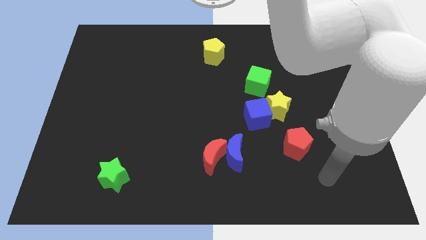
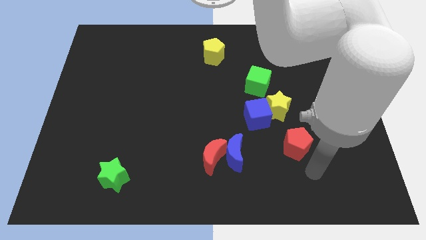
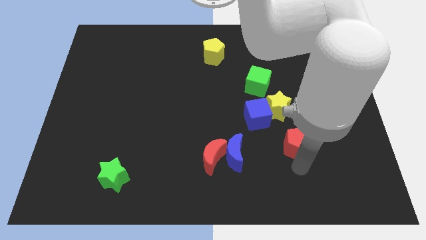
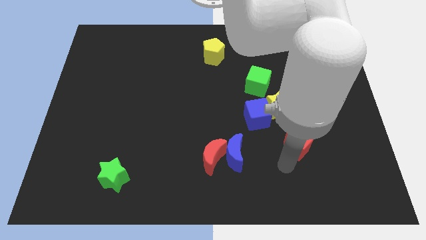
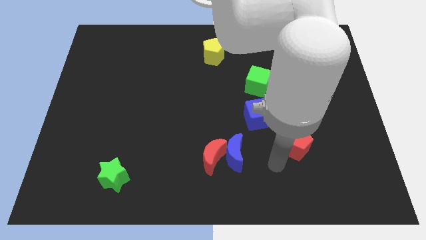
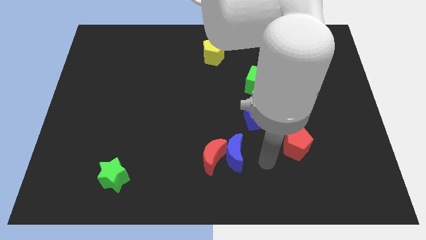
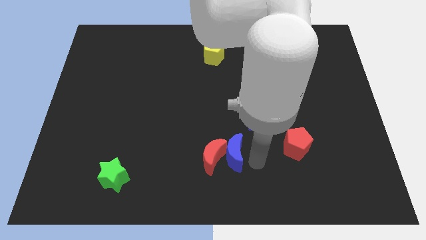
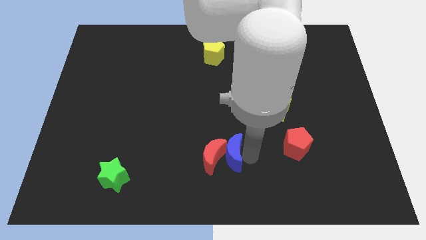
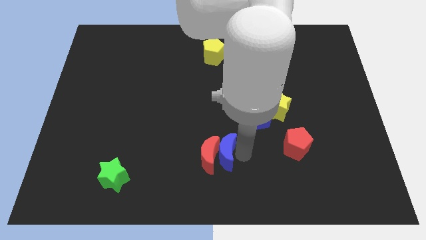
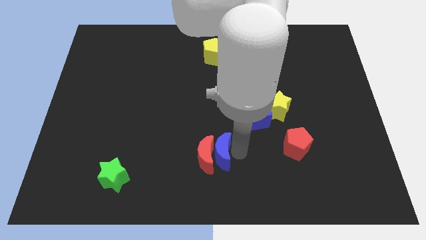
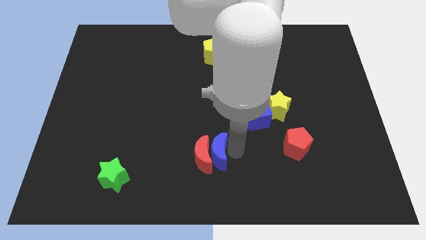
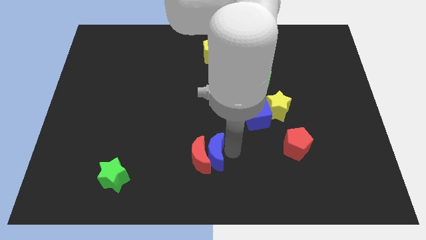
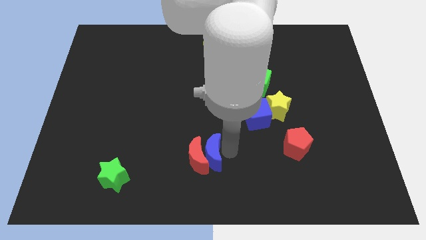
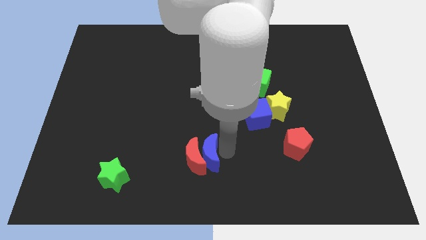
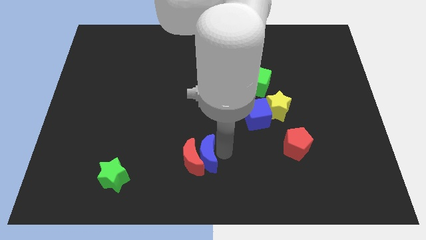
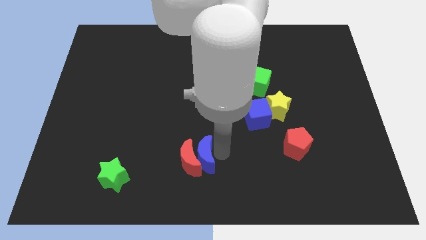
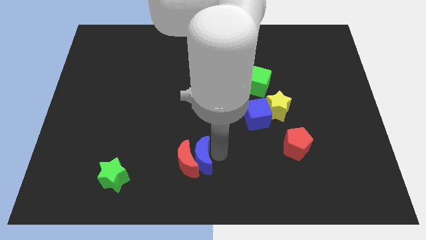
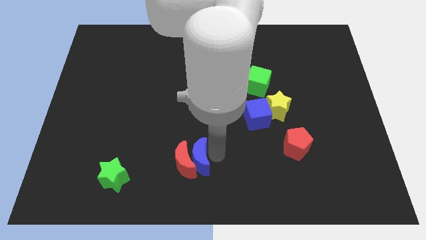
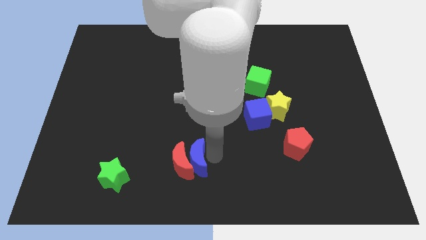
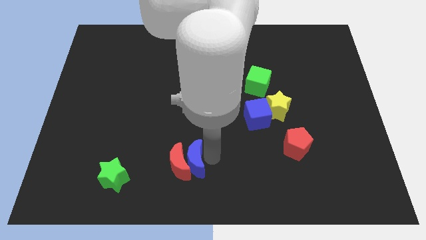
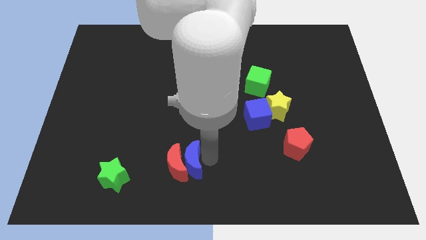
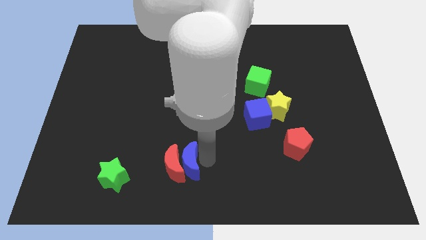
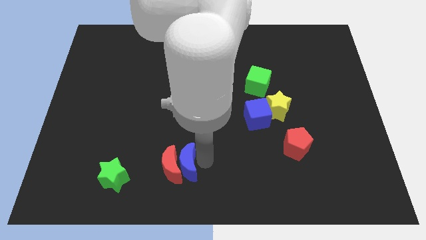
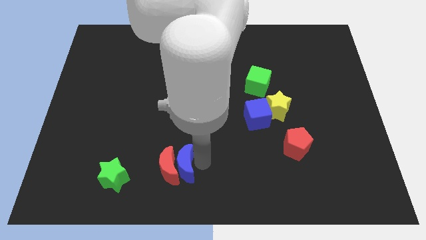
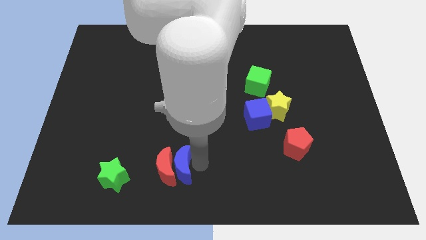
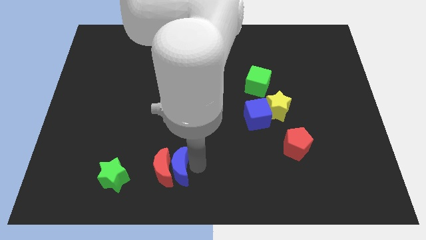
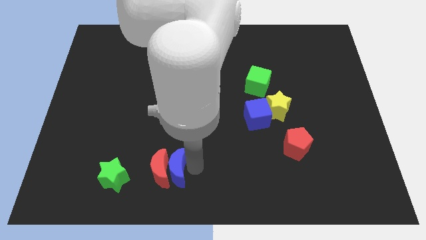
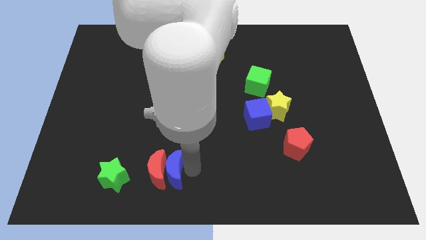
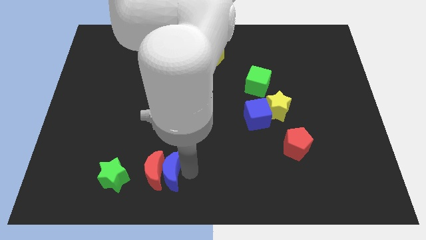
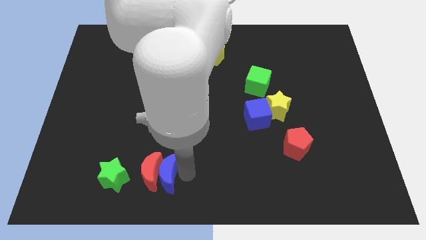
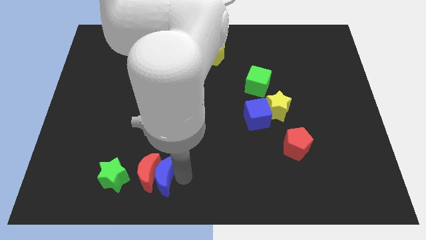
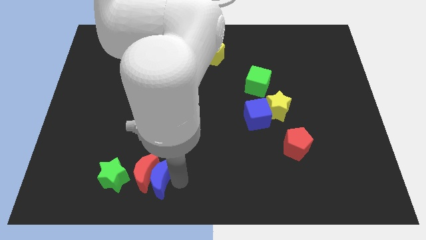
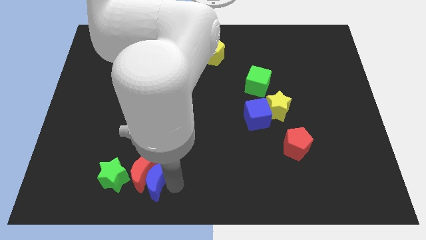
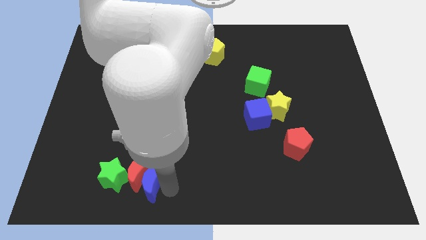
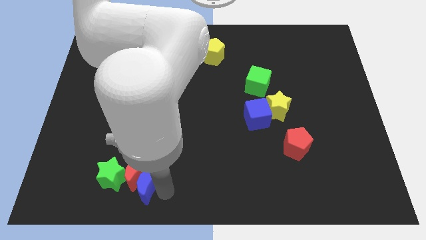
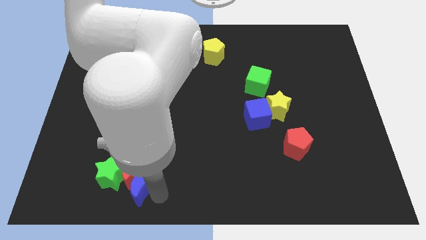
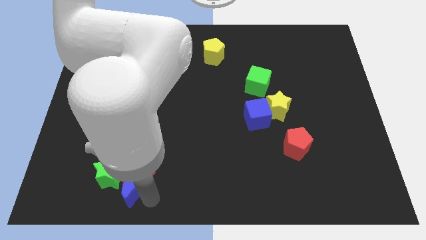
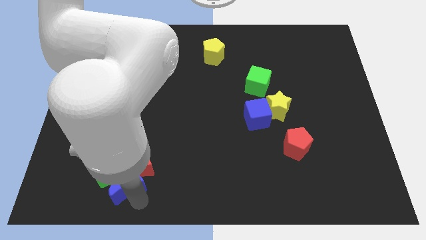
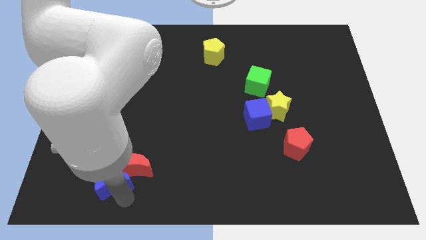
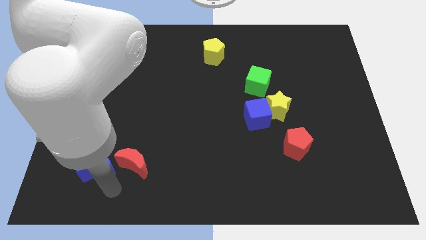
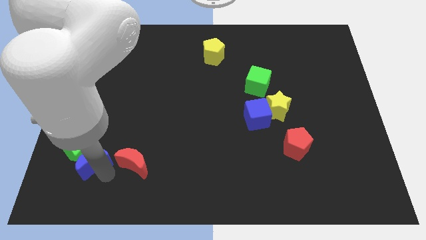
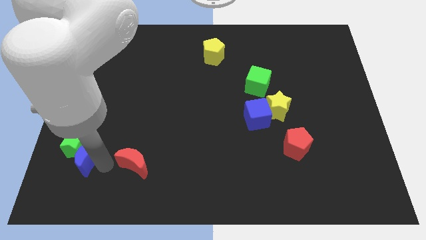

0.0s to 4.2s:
move the red moon away from the blue moon

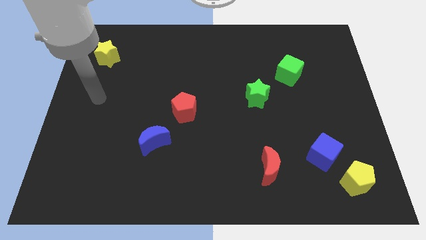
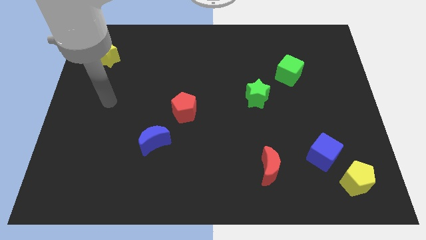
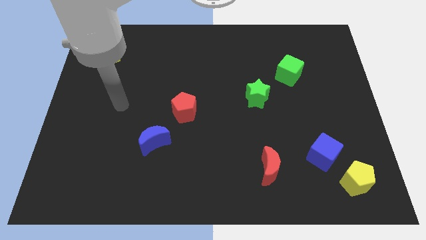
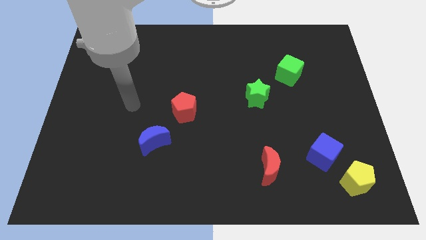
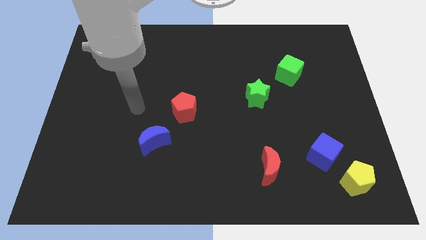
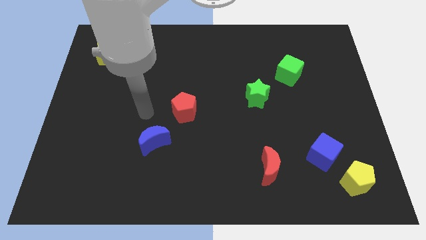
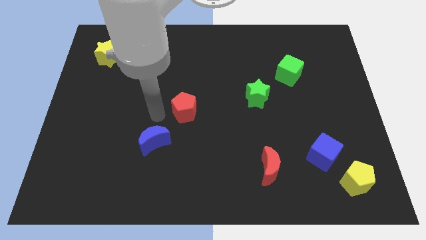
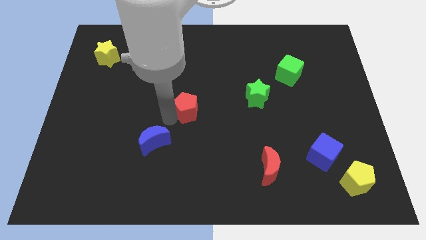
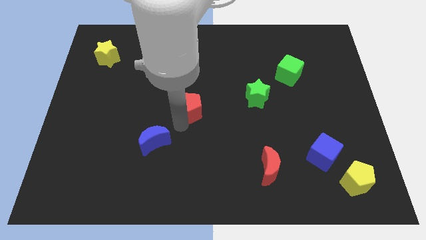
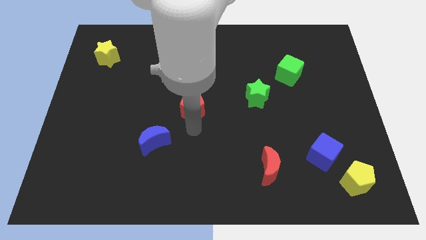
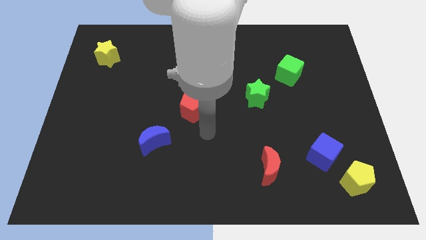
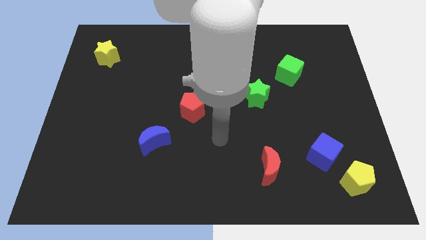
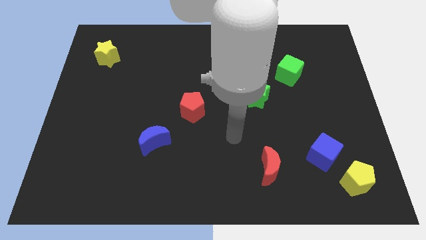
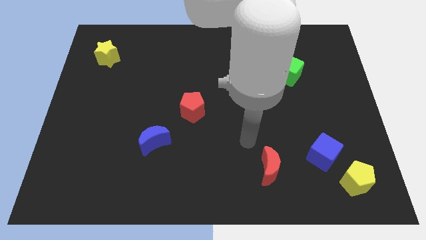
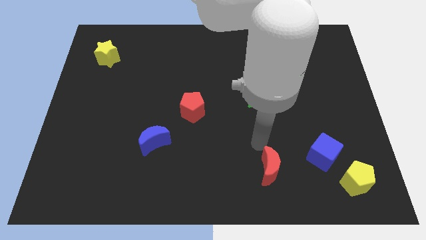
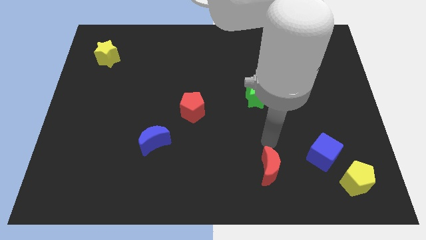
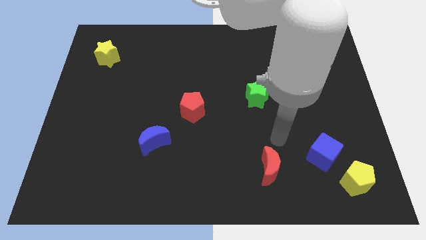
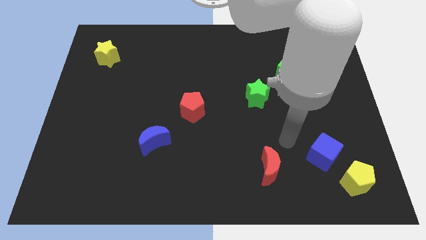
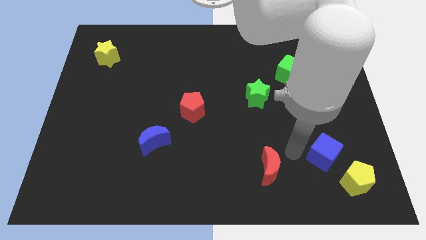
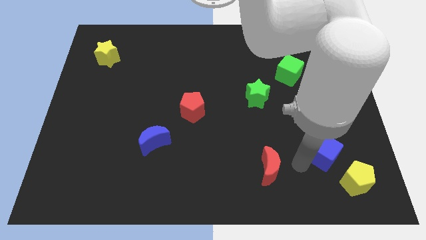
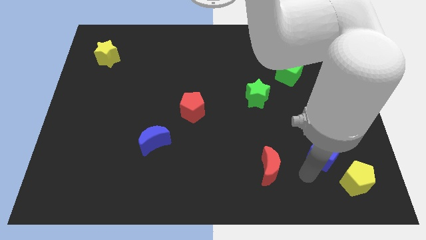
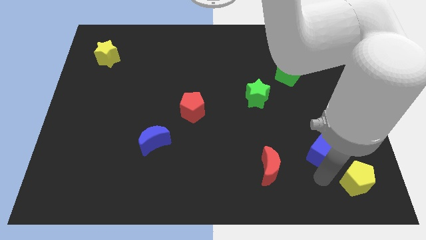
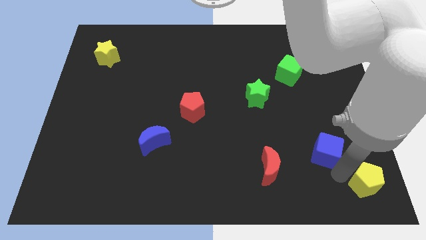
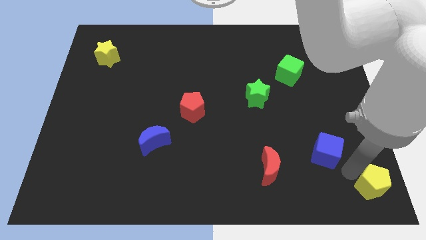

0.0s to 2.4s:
separate the blue cube from the yellow pentagon

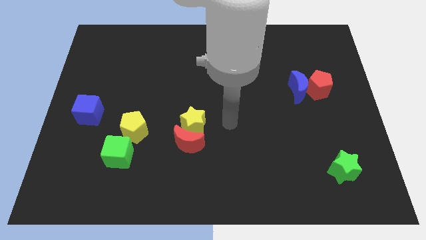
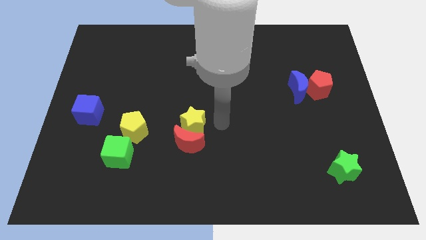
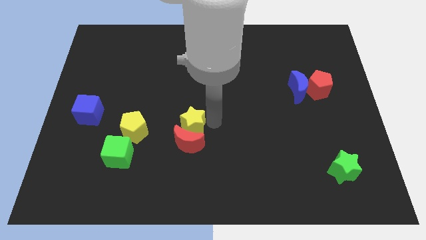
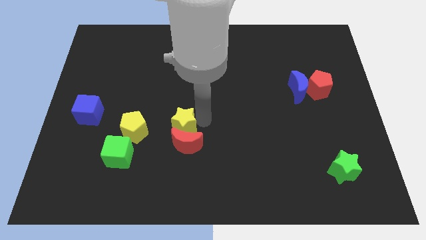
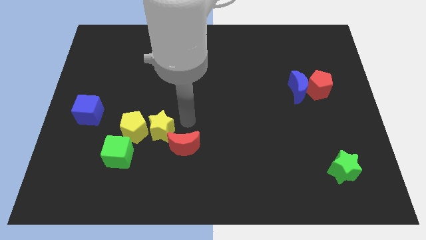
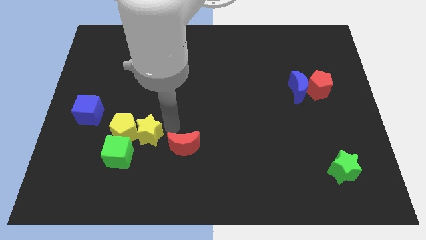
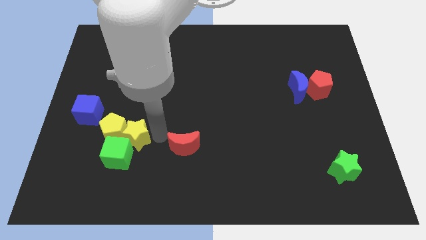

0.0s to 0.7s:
move the red moon away from the yellow star

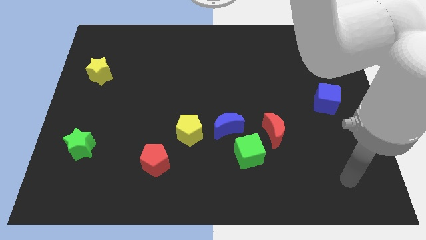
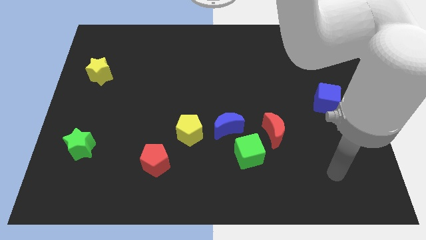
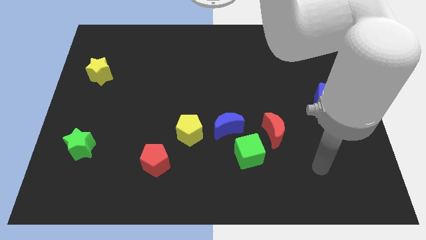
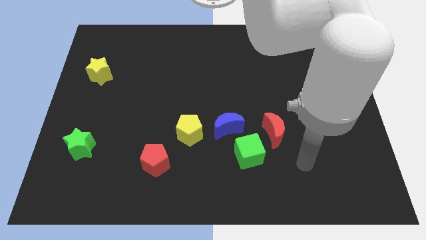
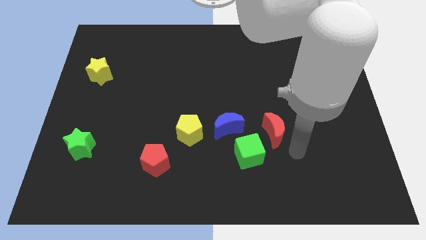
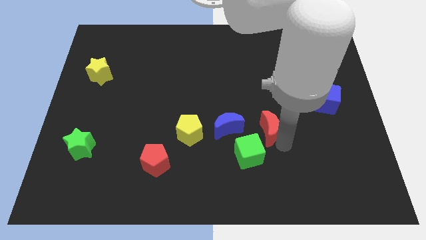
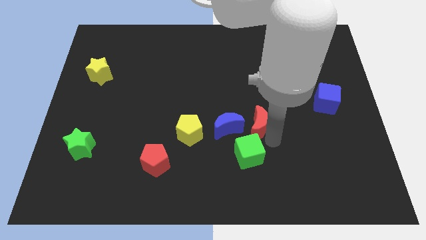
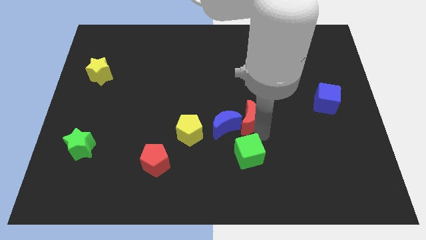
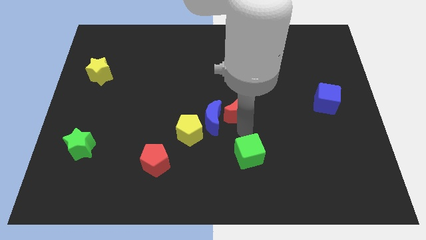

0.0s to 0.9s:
pull the green cube apart from the blue moon and red moon

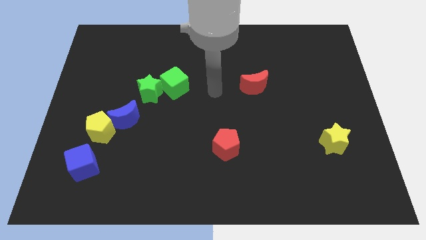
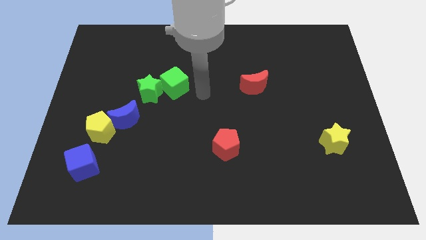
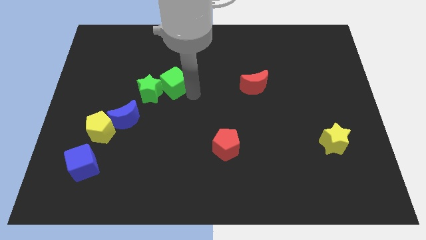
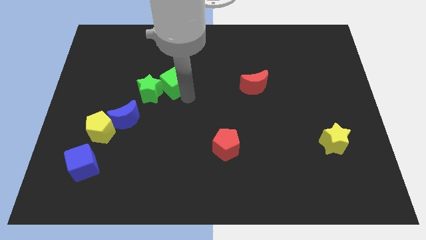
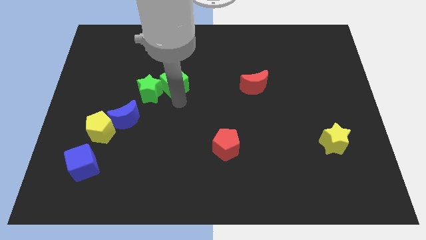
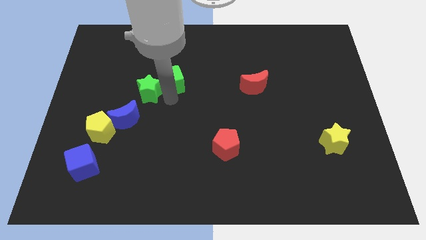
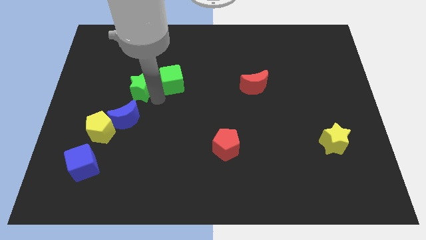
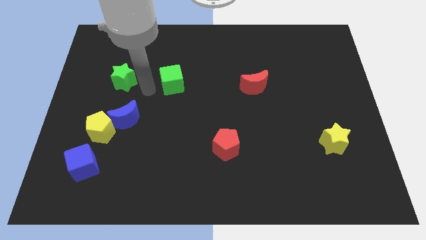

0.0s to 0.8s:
separate the green cube from the green star

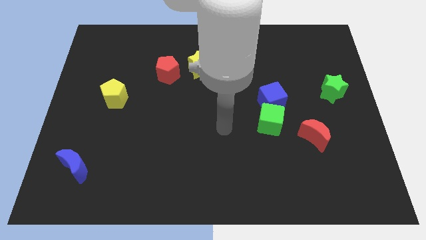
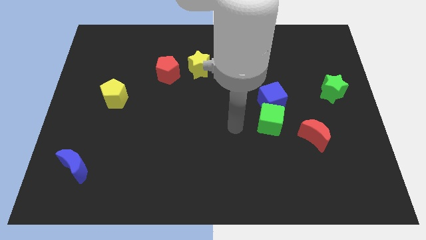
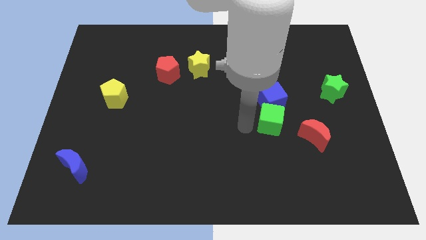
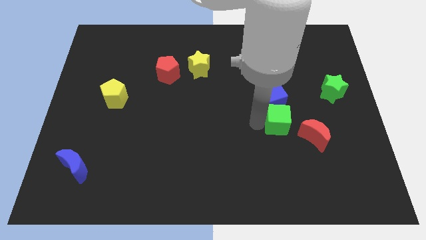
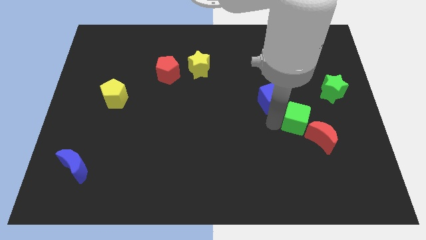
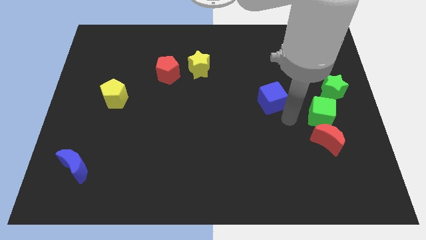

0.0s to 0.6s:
pull the blue cube apart from the green cube
